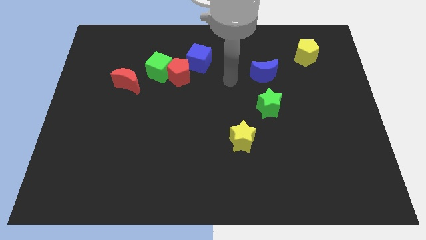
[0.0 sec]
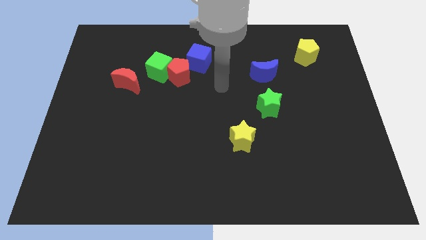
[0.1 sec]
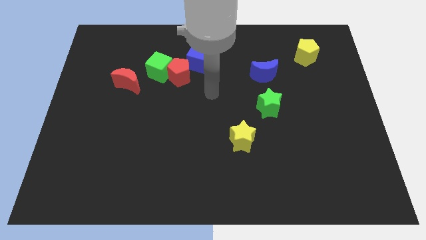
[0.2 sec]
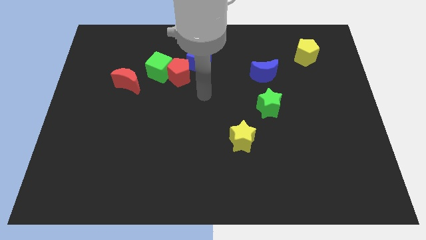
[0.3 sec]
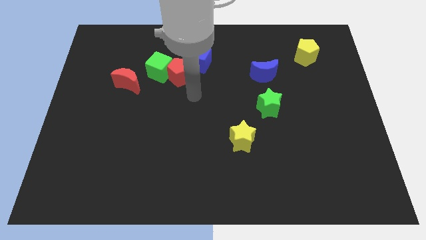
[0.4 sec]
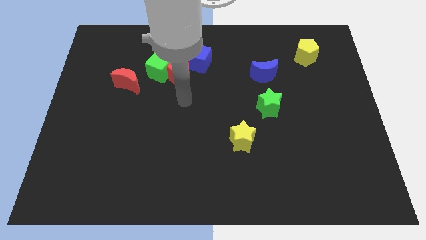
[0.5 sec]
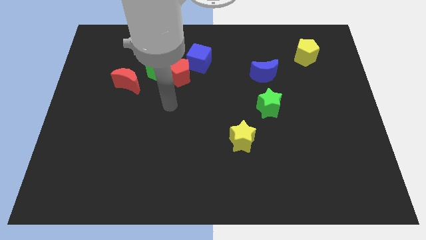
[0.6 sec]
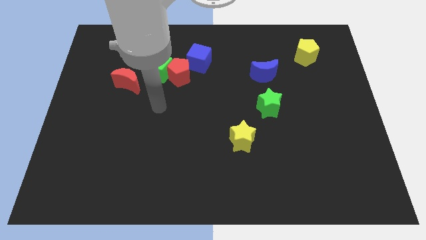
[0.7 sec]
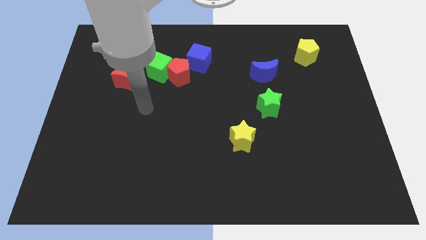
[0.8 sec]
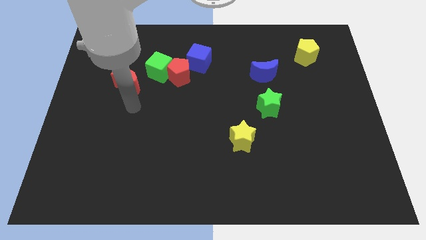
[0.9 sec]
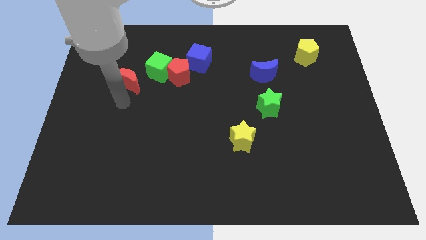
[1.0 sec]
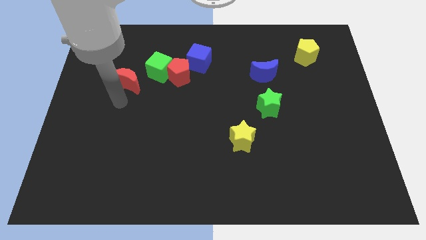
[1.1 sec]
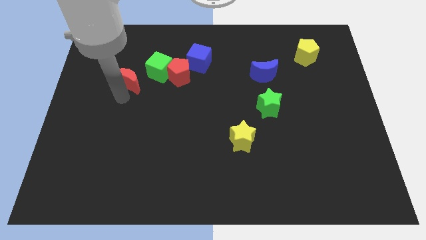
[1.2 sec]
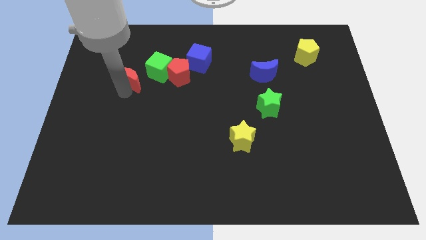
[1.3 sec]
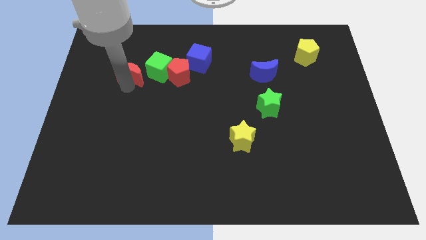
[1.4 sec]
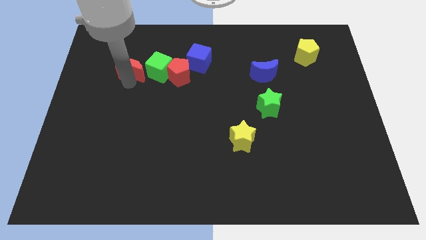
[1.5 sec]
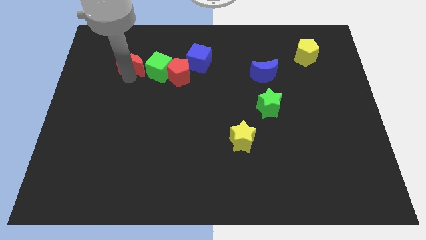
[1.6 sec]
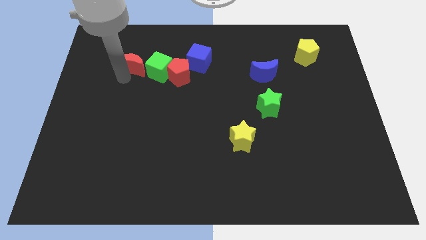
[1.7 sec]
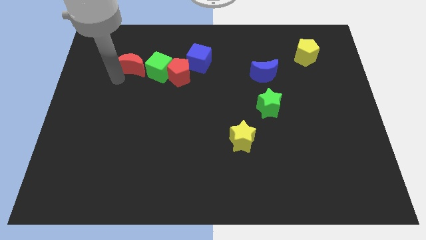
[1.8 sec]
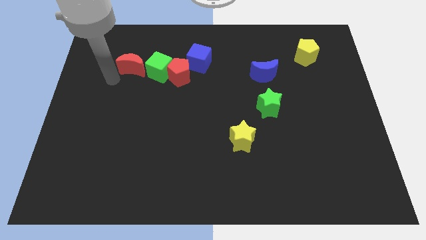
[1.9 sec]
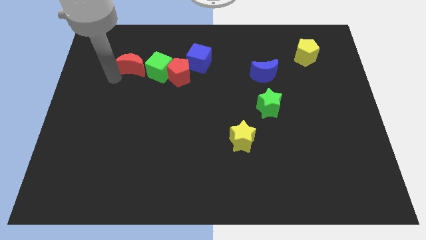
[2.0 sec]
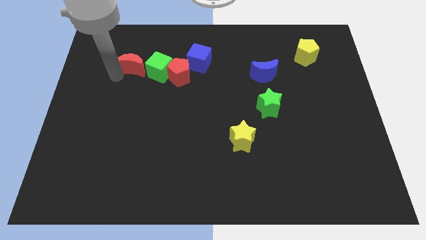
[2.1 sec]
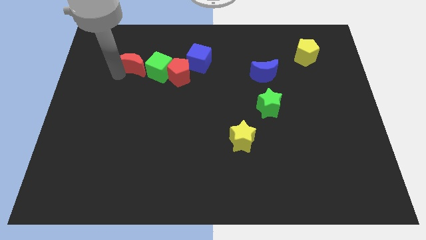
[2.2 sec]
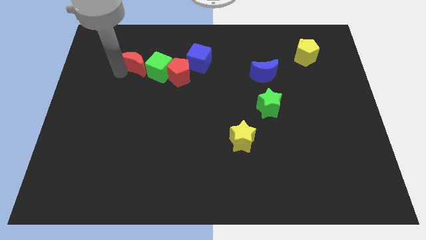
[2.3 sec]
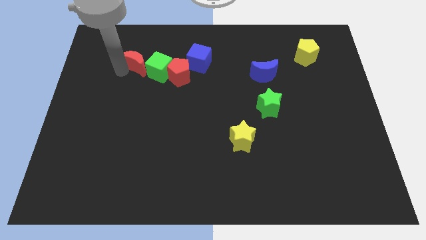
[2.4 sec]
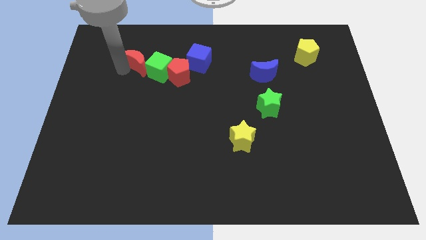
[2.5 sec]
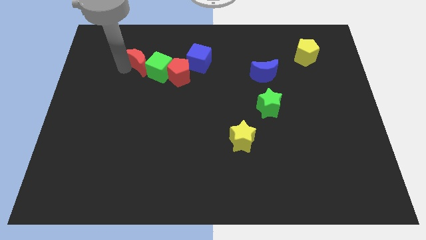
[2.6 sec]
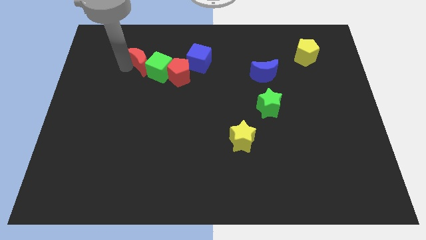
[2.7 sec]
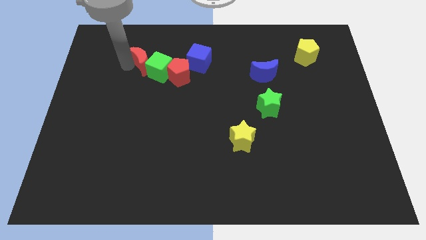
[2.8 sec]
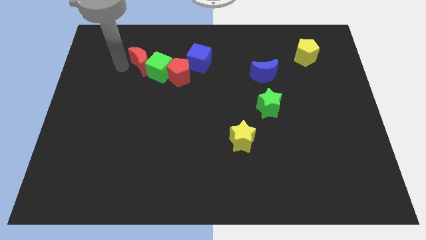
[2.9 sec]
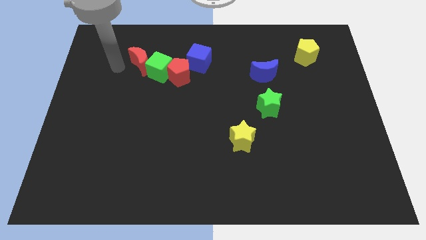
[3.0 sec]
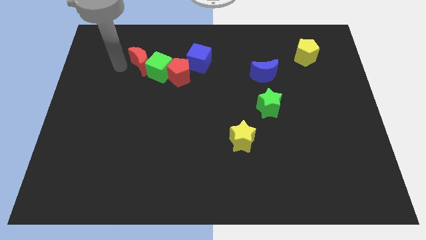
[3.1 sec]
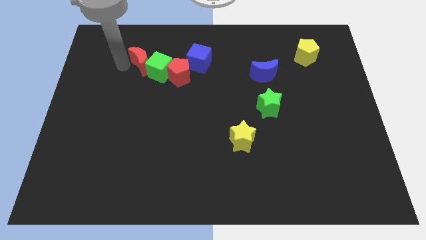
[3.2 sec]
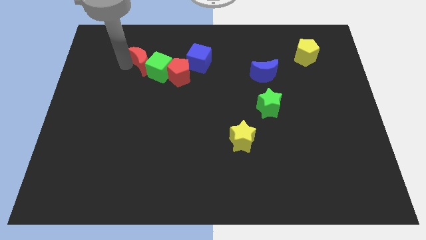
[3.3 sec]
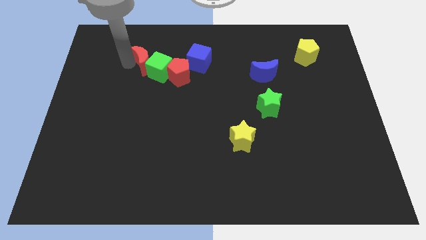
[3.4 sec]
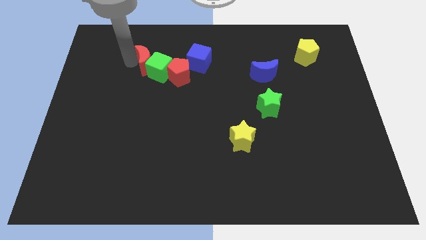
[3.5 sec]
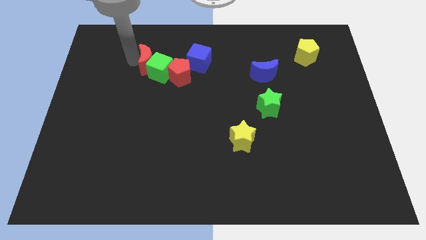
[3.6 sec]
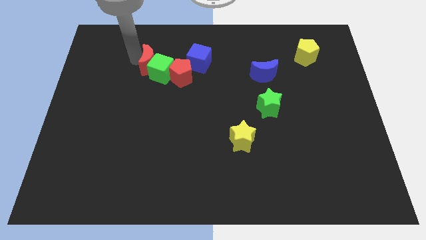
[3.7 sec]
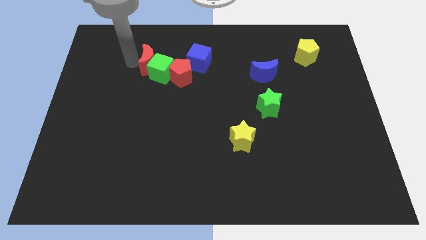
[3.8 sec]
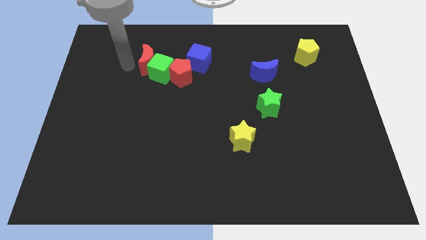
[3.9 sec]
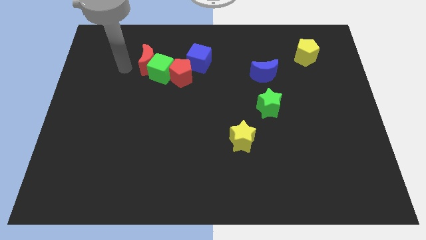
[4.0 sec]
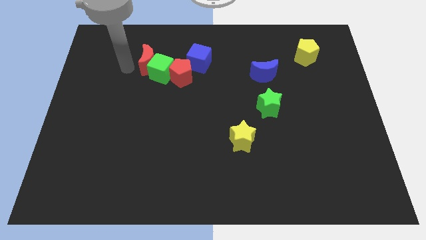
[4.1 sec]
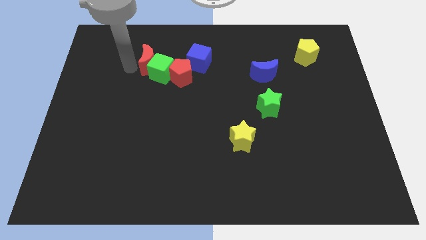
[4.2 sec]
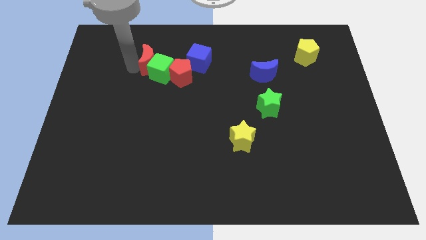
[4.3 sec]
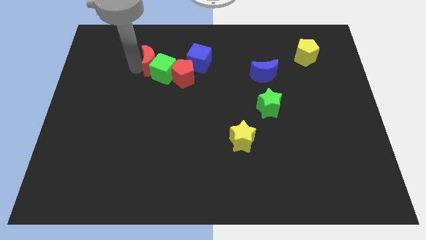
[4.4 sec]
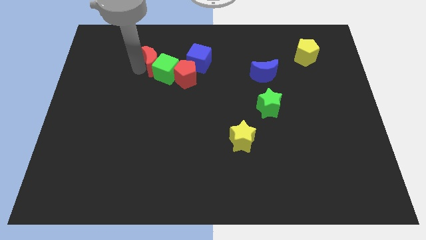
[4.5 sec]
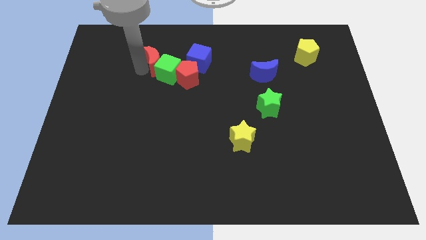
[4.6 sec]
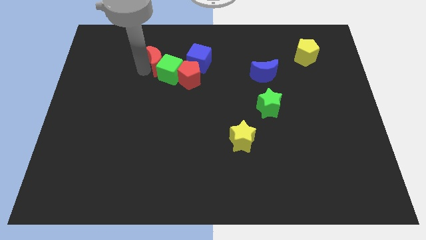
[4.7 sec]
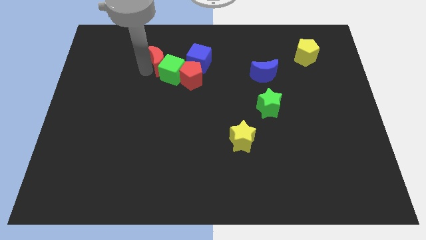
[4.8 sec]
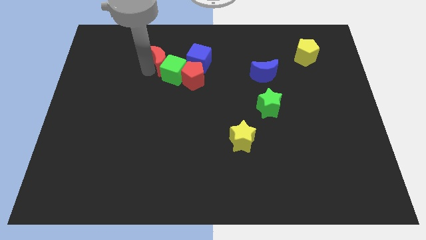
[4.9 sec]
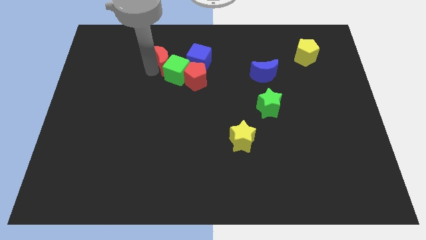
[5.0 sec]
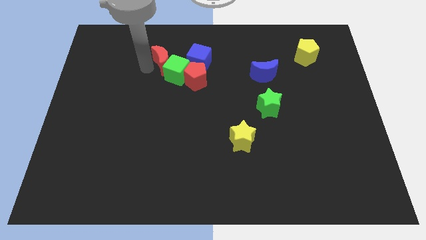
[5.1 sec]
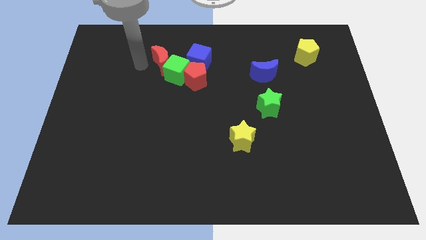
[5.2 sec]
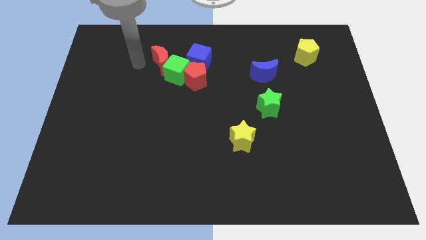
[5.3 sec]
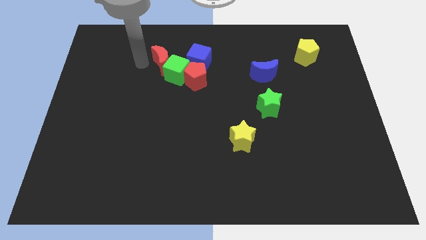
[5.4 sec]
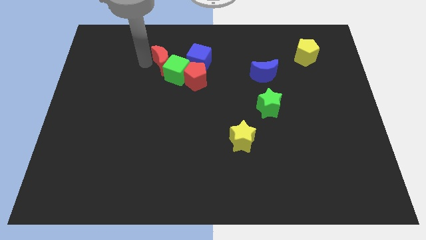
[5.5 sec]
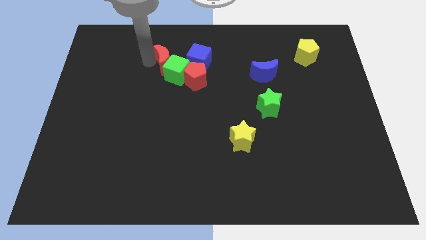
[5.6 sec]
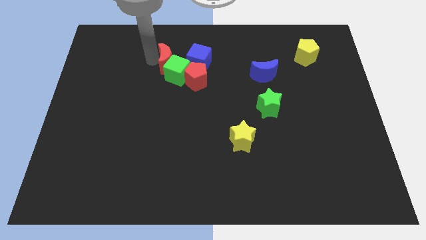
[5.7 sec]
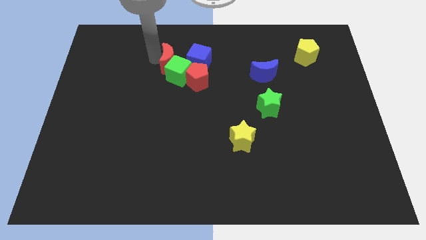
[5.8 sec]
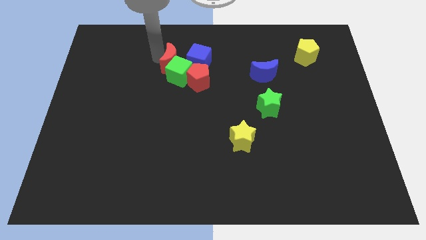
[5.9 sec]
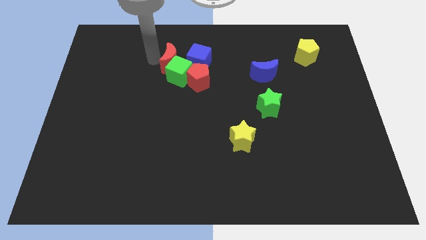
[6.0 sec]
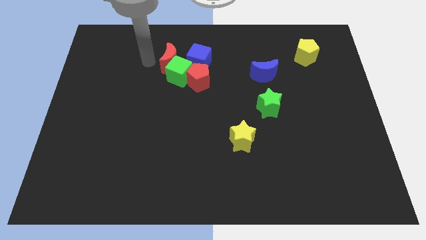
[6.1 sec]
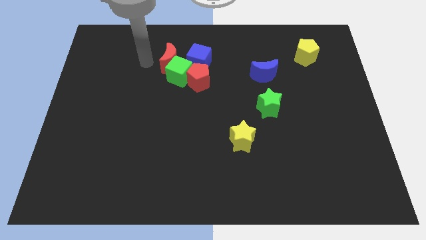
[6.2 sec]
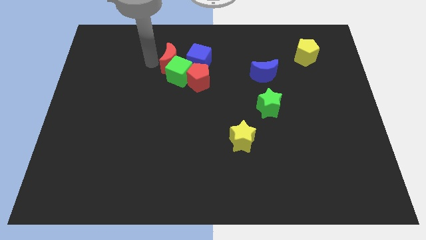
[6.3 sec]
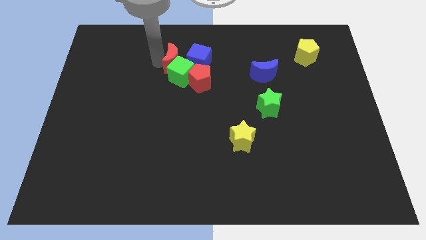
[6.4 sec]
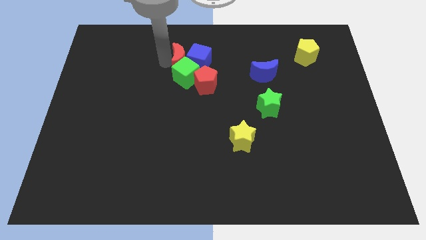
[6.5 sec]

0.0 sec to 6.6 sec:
move the red moon next to the blue cube

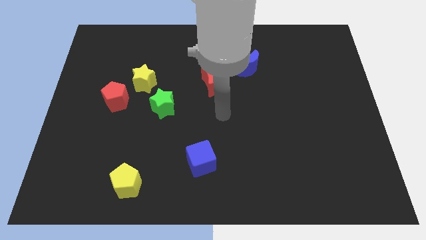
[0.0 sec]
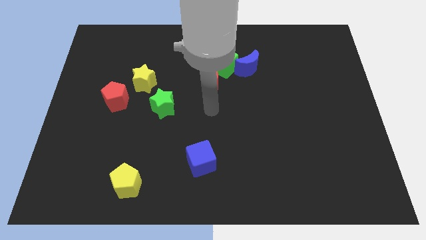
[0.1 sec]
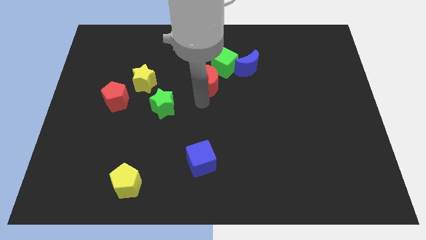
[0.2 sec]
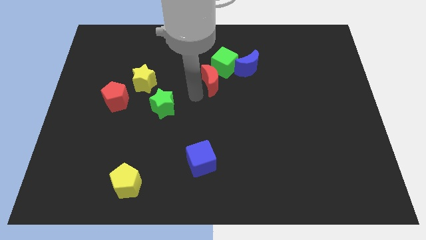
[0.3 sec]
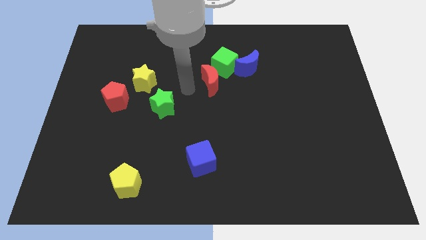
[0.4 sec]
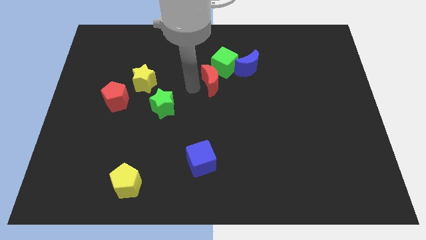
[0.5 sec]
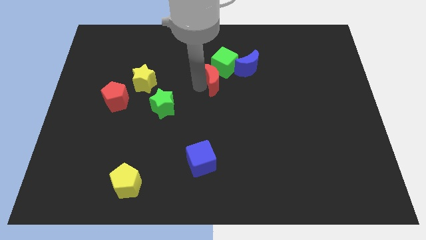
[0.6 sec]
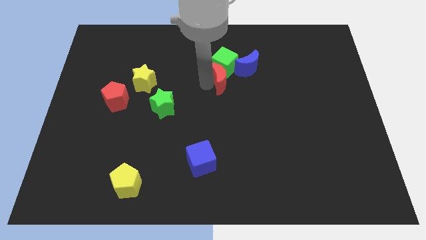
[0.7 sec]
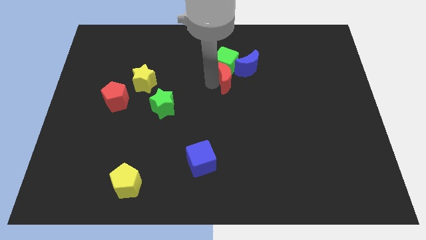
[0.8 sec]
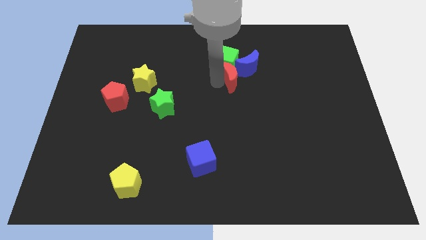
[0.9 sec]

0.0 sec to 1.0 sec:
move the red moon close to the blue moon
